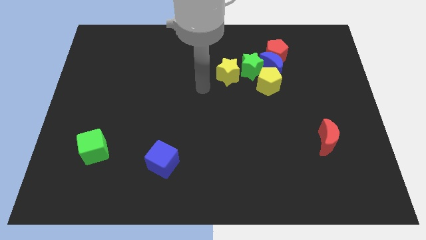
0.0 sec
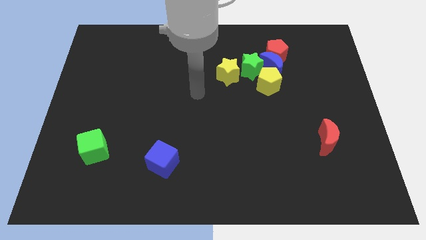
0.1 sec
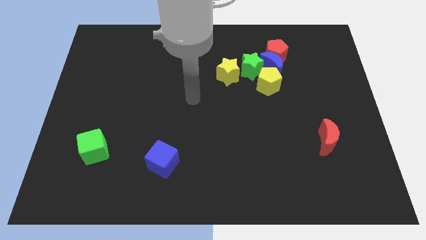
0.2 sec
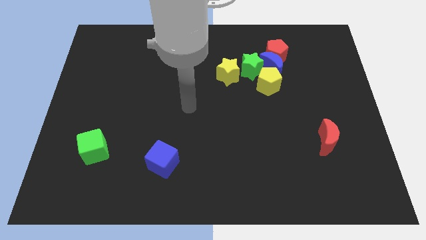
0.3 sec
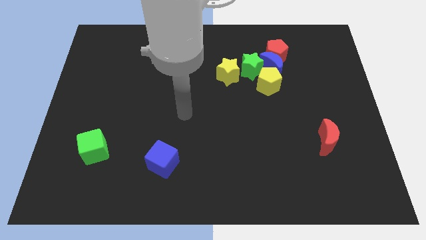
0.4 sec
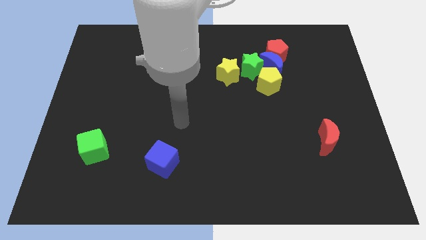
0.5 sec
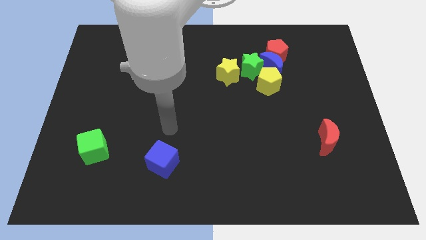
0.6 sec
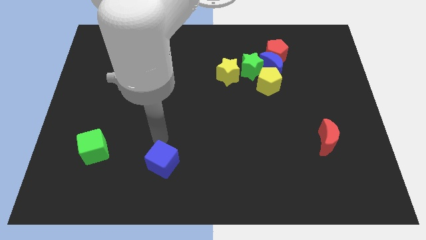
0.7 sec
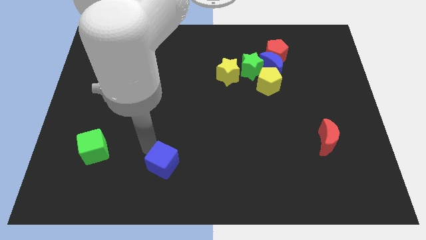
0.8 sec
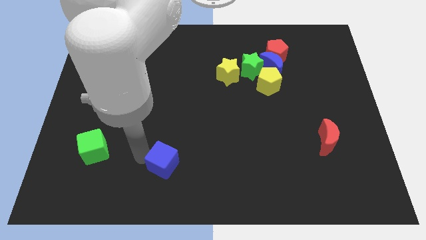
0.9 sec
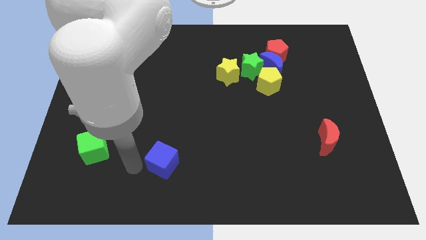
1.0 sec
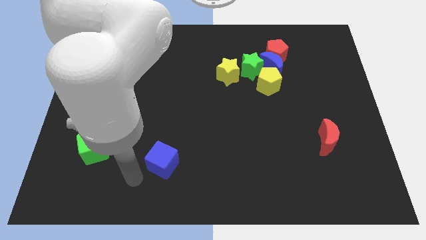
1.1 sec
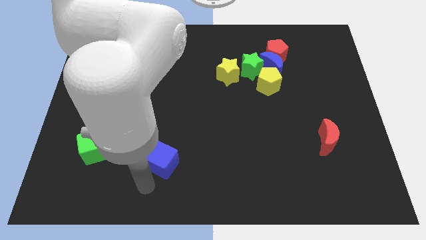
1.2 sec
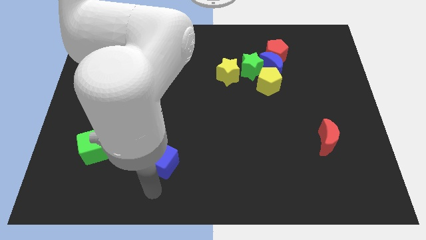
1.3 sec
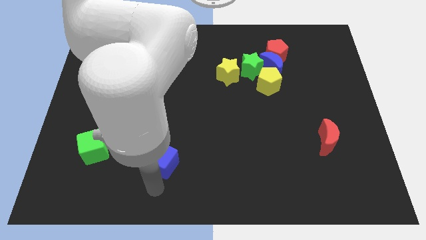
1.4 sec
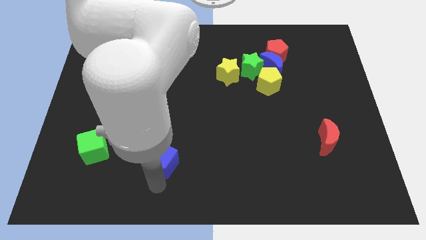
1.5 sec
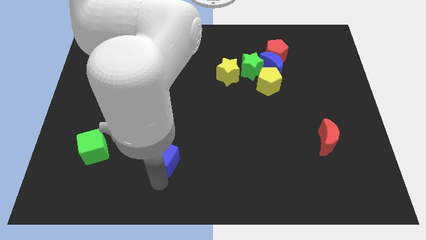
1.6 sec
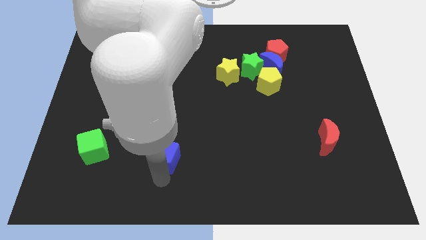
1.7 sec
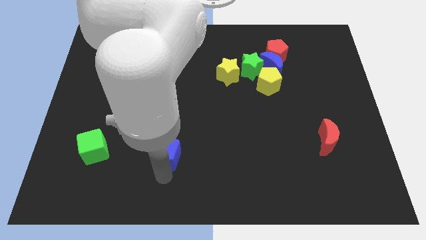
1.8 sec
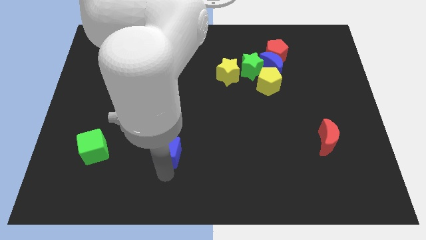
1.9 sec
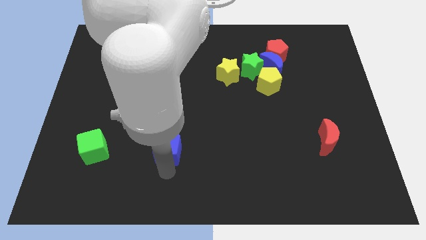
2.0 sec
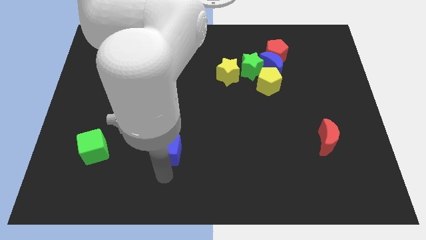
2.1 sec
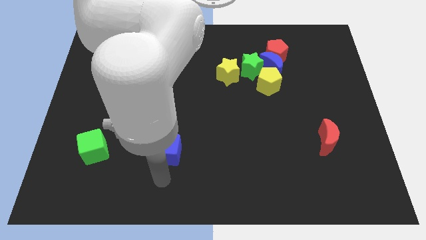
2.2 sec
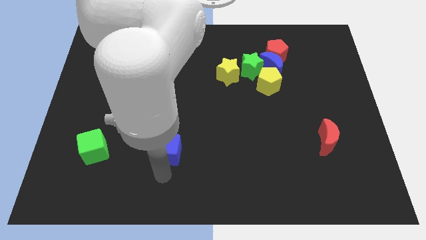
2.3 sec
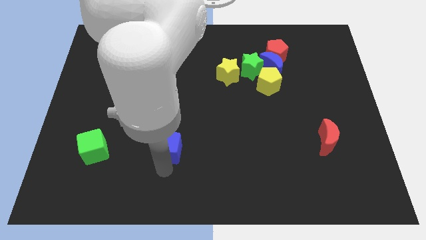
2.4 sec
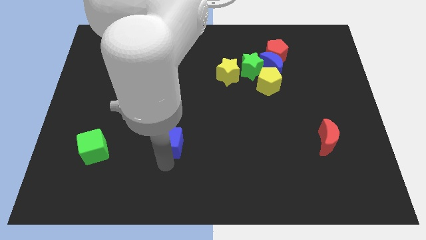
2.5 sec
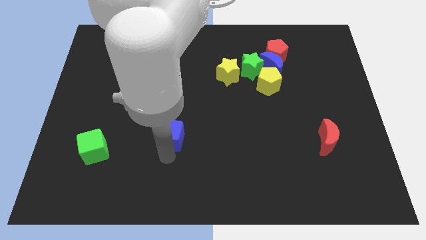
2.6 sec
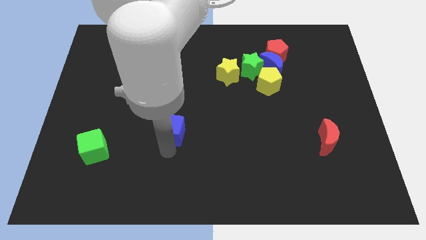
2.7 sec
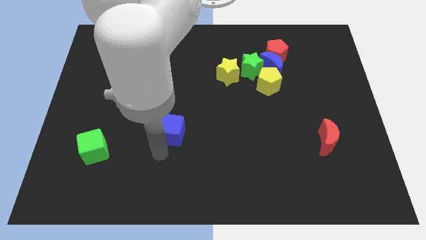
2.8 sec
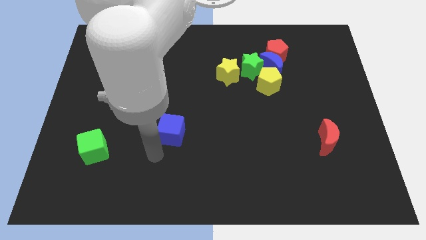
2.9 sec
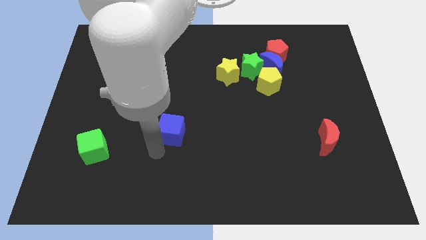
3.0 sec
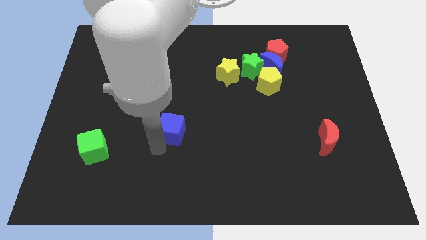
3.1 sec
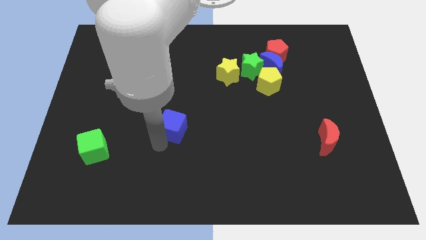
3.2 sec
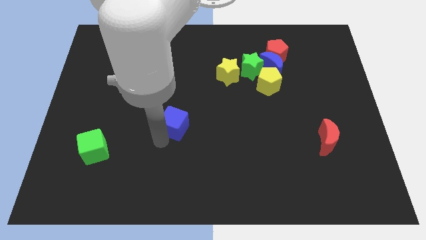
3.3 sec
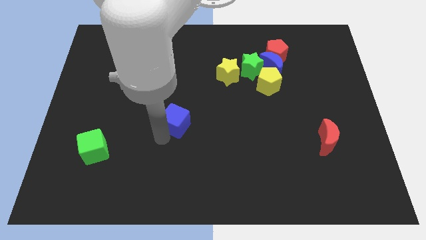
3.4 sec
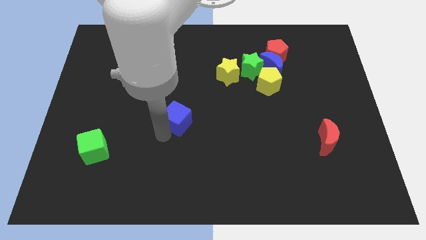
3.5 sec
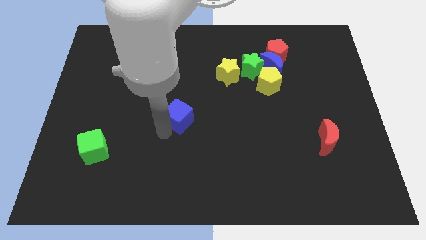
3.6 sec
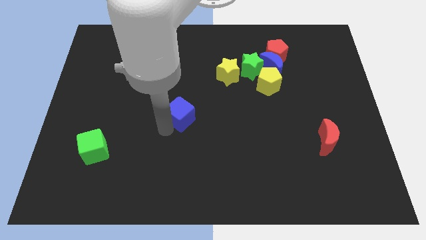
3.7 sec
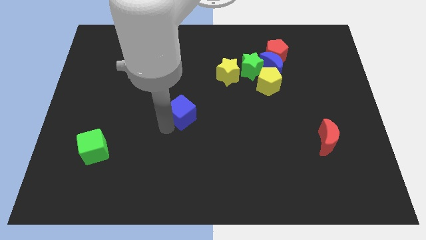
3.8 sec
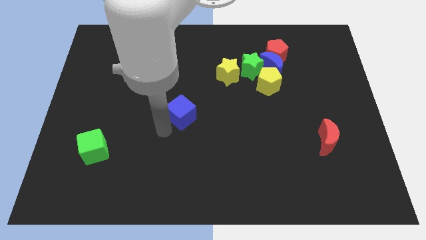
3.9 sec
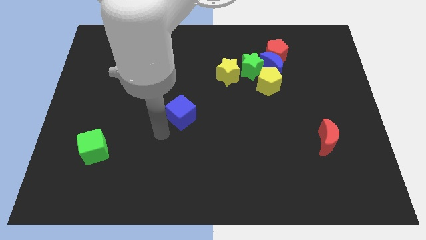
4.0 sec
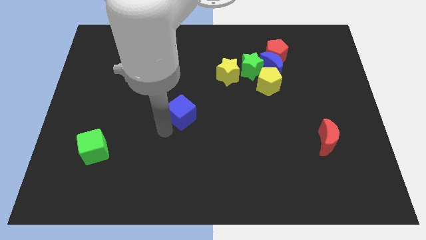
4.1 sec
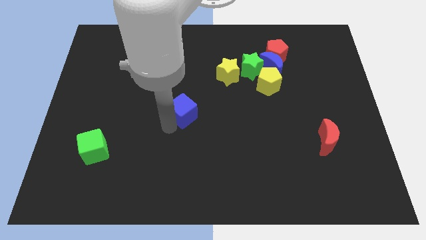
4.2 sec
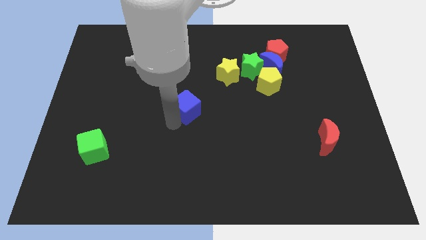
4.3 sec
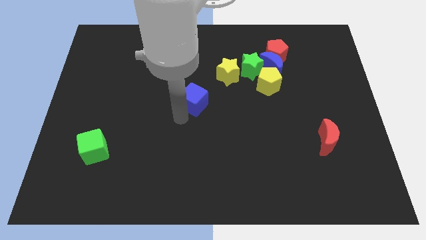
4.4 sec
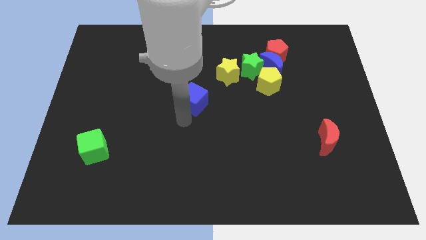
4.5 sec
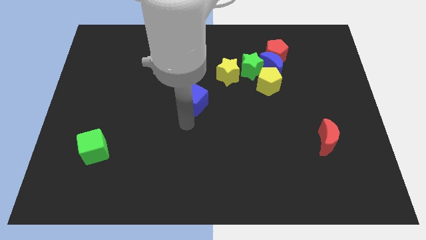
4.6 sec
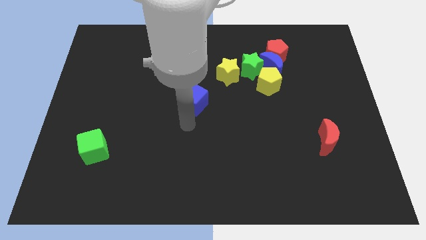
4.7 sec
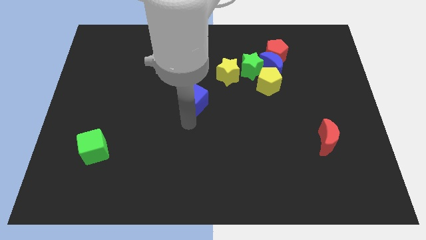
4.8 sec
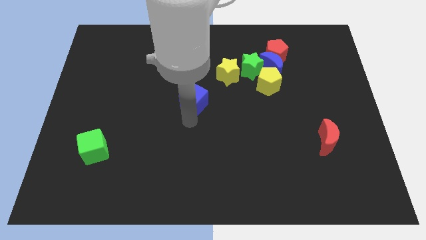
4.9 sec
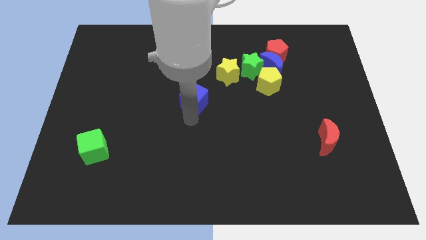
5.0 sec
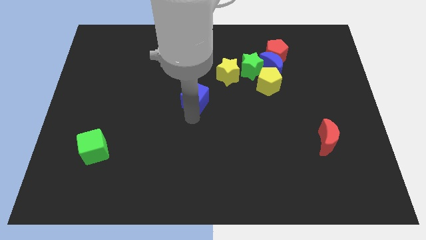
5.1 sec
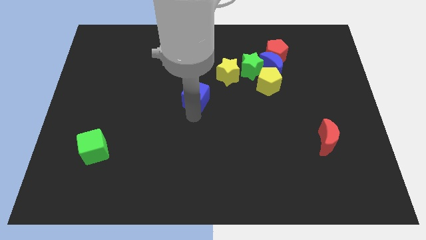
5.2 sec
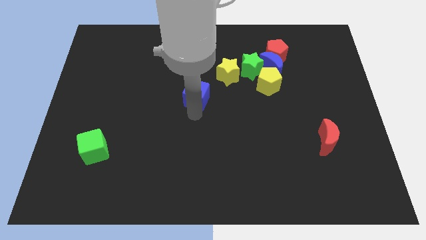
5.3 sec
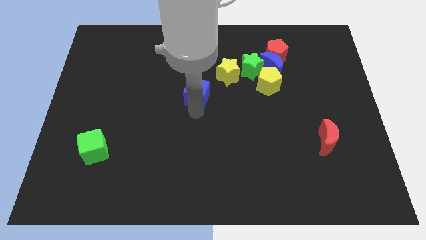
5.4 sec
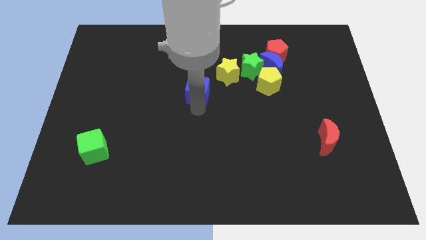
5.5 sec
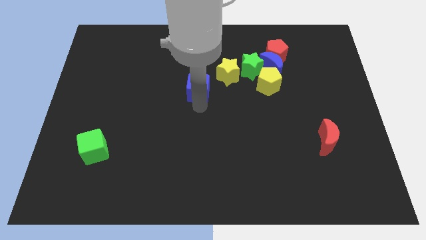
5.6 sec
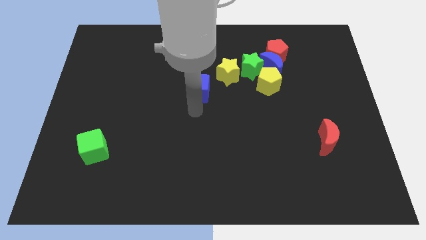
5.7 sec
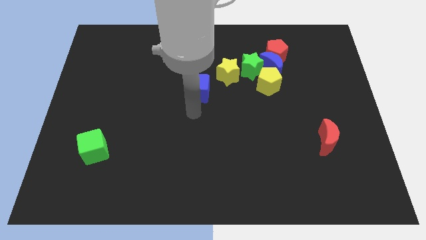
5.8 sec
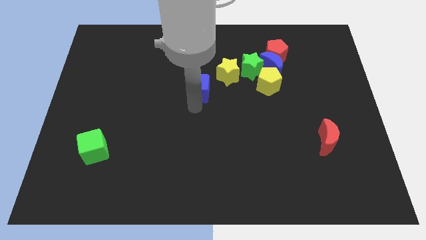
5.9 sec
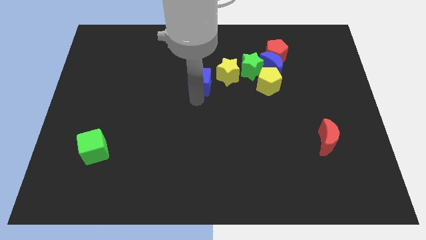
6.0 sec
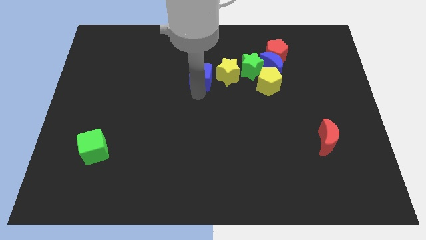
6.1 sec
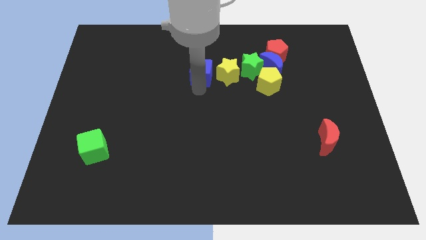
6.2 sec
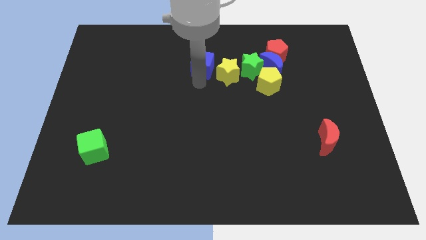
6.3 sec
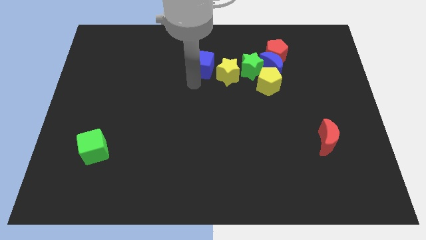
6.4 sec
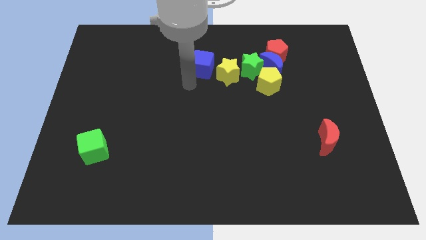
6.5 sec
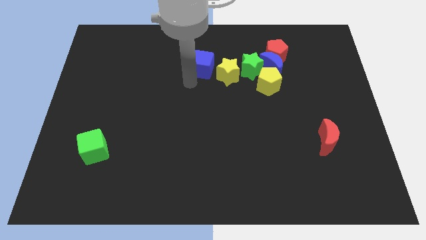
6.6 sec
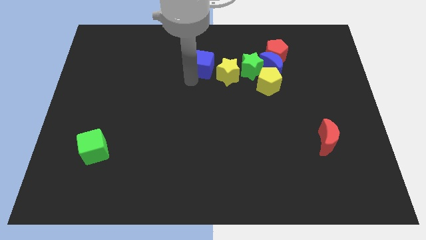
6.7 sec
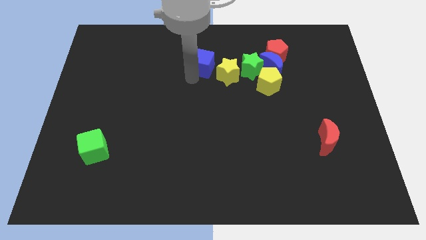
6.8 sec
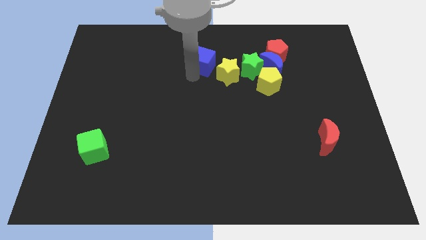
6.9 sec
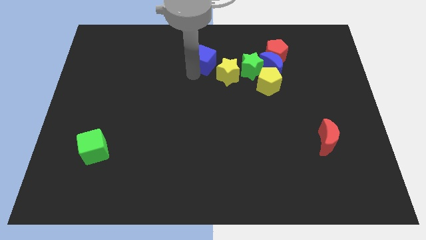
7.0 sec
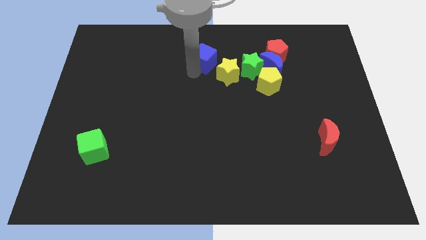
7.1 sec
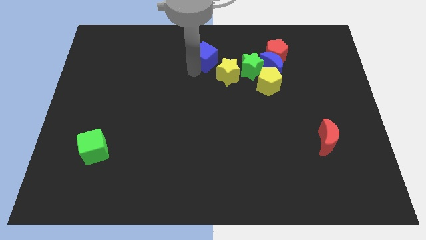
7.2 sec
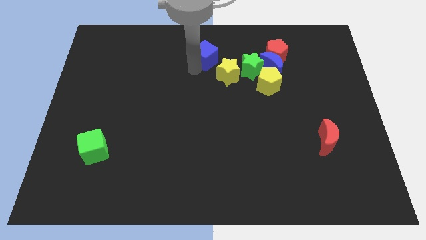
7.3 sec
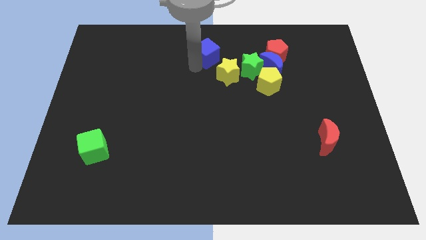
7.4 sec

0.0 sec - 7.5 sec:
push the blue cube to the top side
